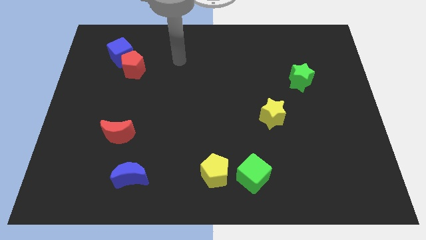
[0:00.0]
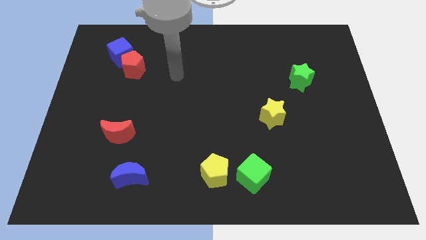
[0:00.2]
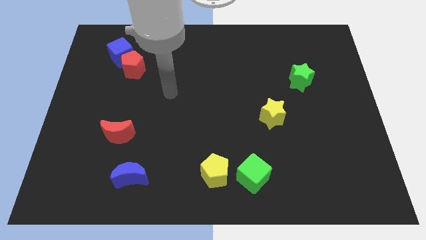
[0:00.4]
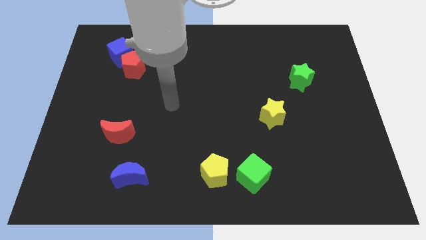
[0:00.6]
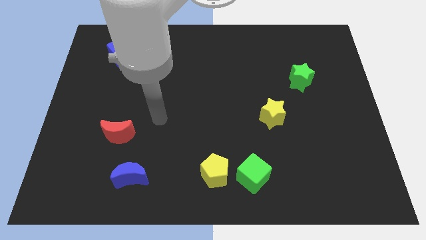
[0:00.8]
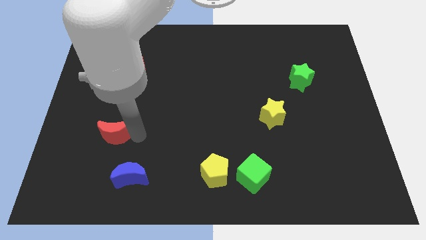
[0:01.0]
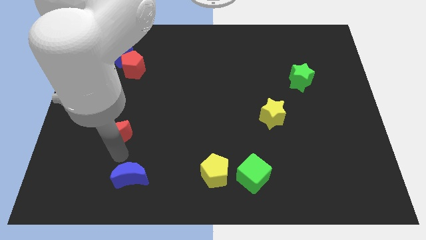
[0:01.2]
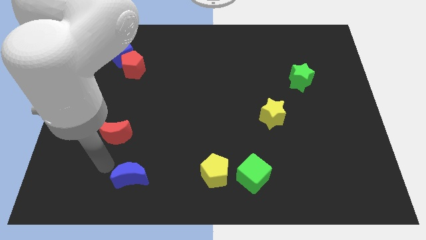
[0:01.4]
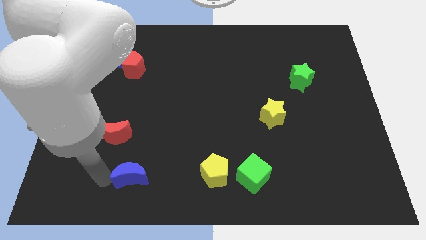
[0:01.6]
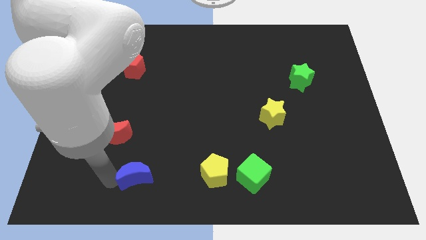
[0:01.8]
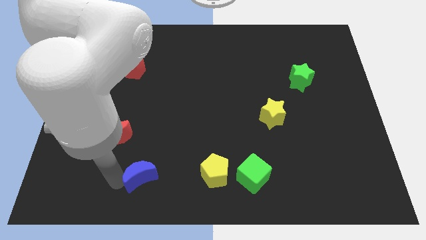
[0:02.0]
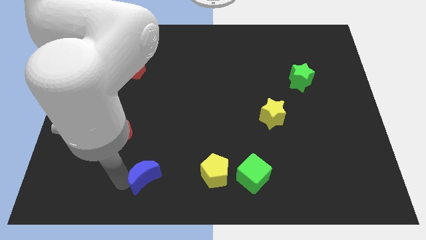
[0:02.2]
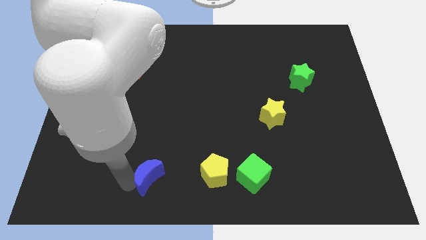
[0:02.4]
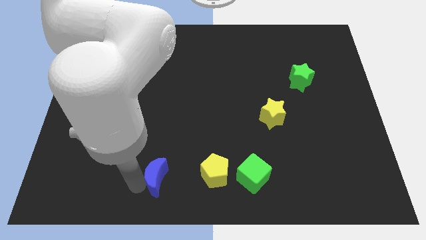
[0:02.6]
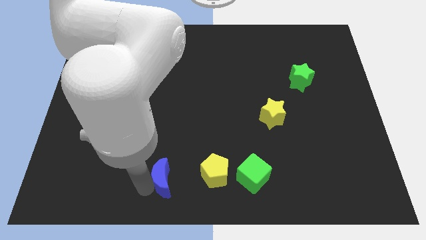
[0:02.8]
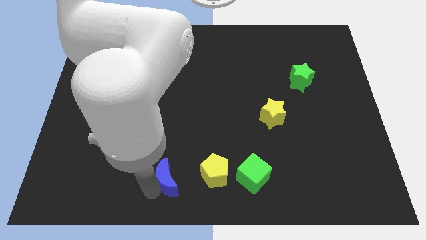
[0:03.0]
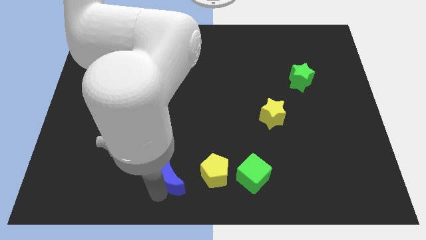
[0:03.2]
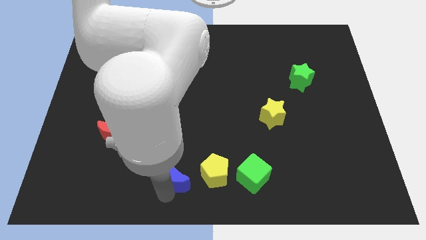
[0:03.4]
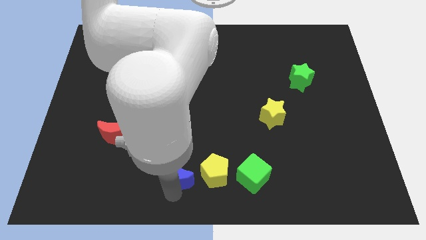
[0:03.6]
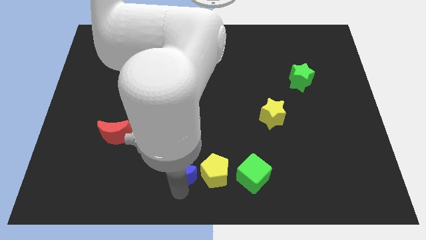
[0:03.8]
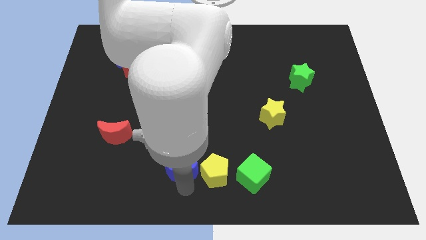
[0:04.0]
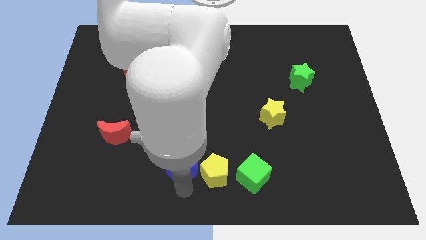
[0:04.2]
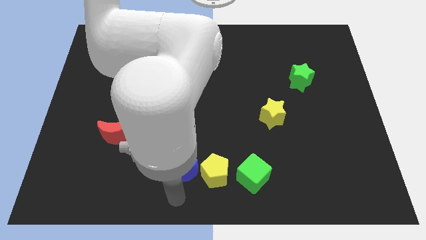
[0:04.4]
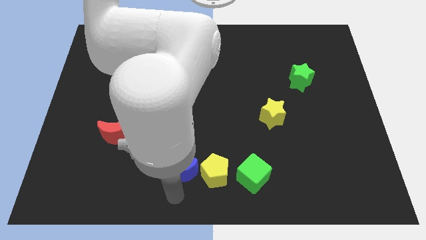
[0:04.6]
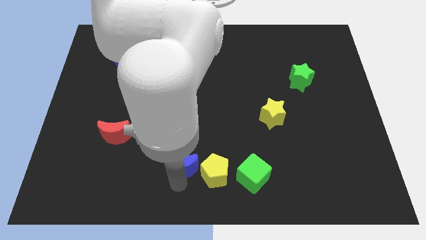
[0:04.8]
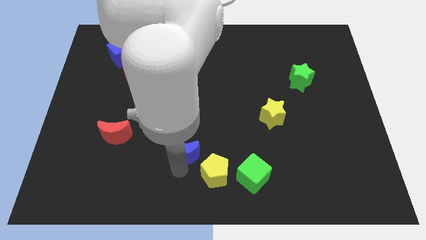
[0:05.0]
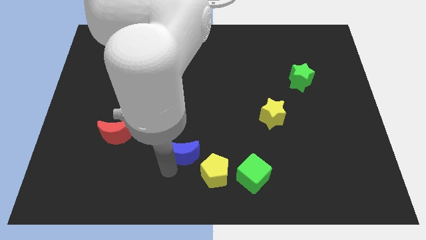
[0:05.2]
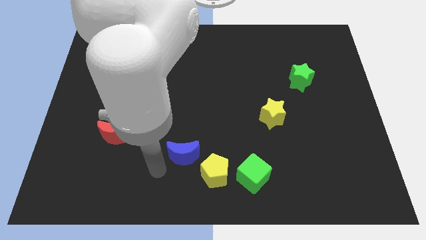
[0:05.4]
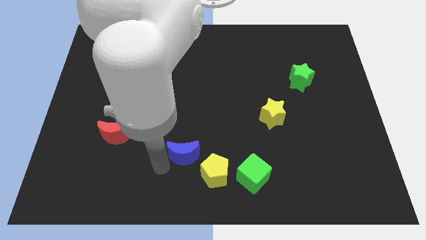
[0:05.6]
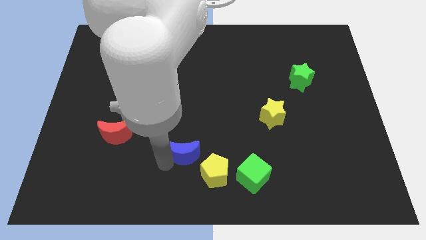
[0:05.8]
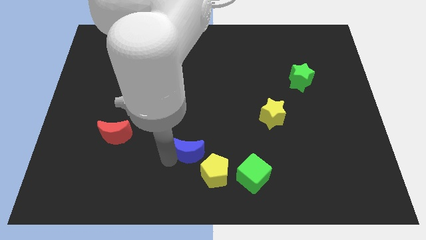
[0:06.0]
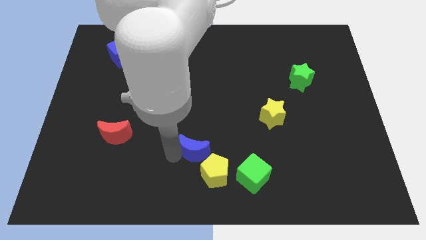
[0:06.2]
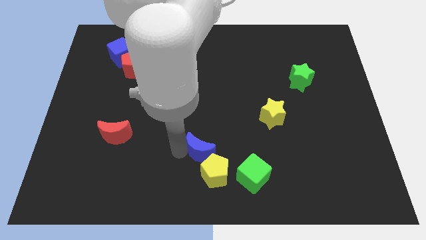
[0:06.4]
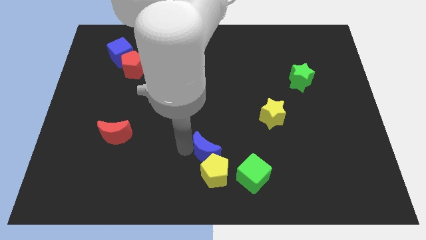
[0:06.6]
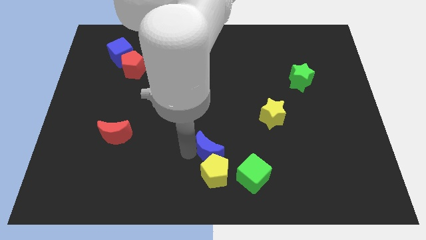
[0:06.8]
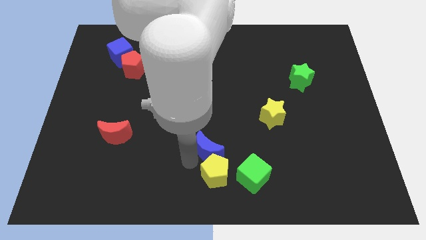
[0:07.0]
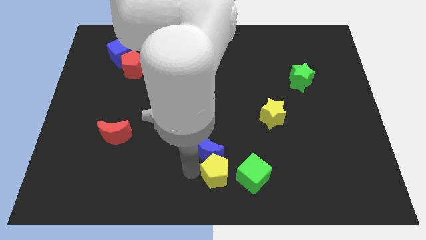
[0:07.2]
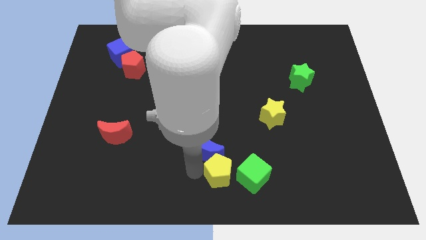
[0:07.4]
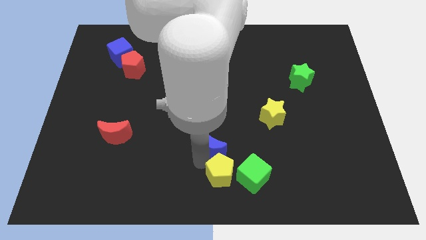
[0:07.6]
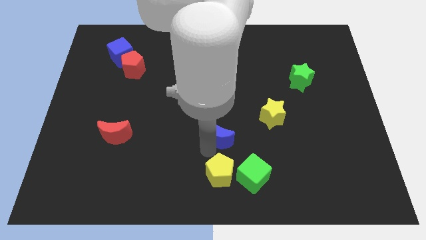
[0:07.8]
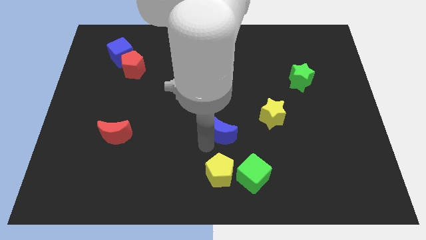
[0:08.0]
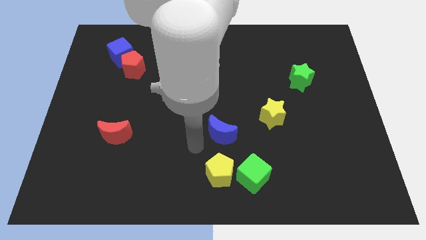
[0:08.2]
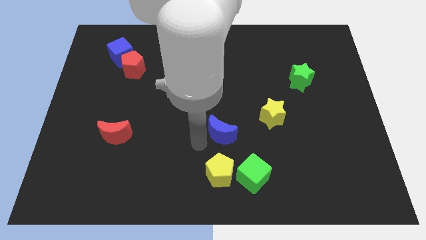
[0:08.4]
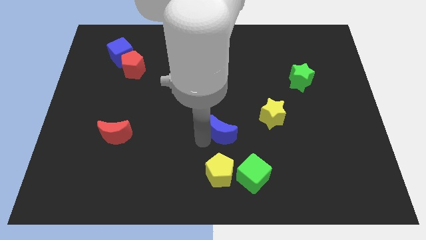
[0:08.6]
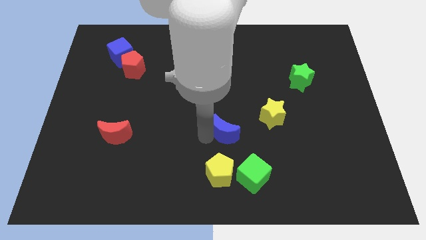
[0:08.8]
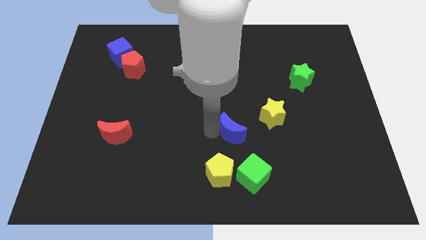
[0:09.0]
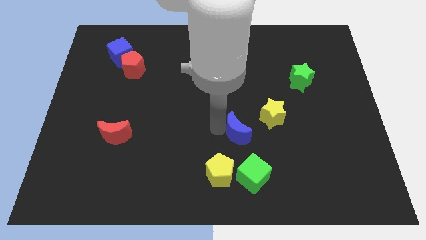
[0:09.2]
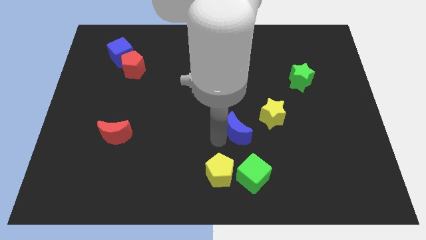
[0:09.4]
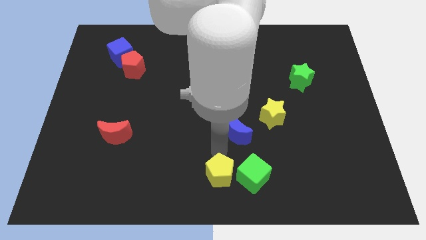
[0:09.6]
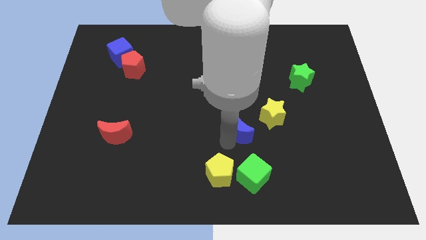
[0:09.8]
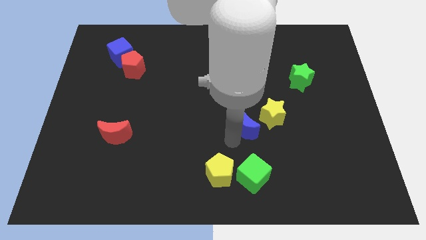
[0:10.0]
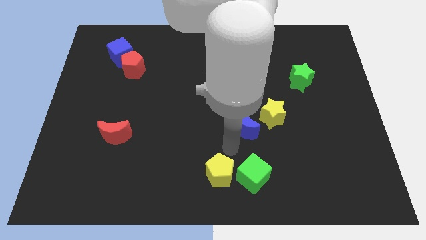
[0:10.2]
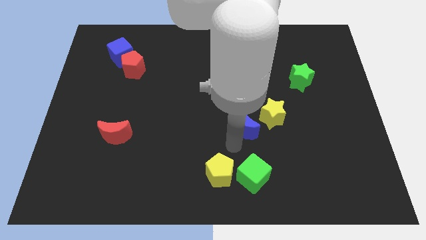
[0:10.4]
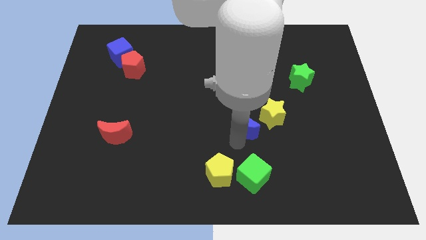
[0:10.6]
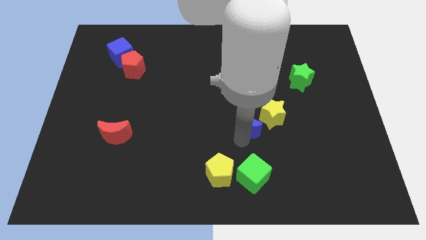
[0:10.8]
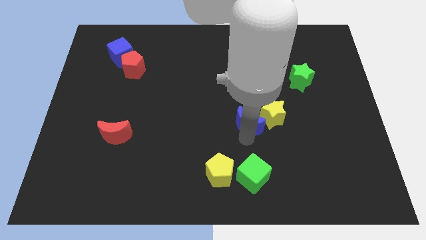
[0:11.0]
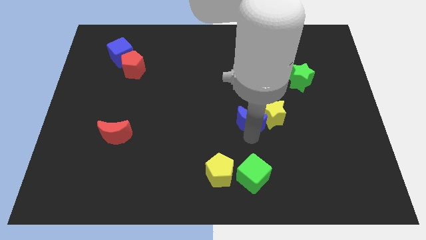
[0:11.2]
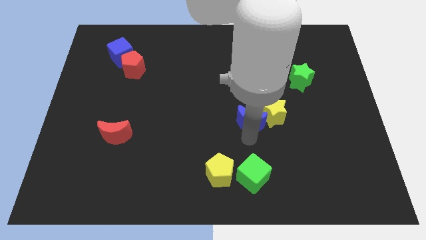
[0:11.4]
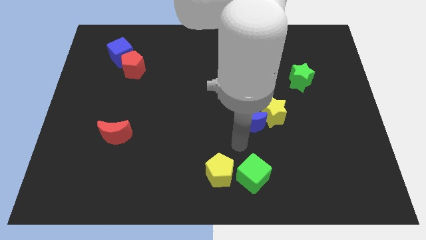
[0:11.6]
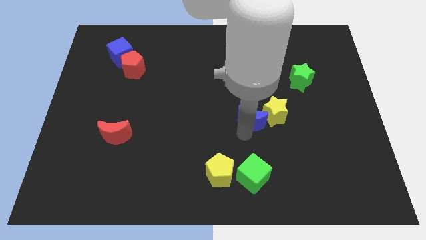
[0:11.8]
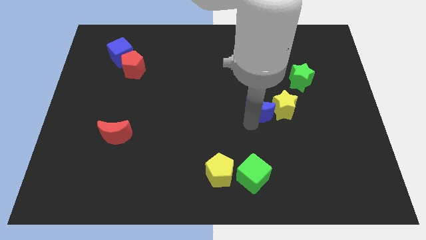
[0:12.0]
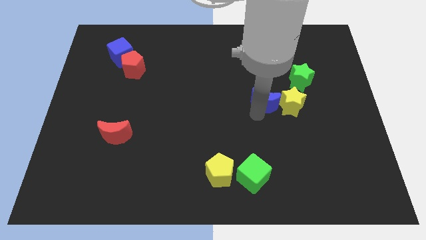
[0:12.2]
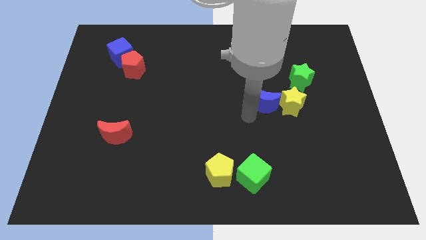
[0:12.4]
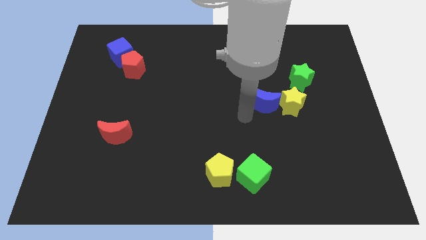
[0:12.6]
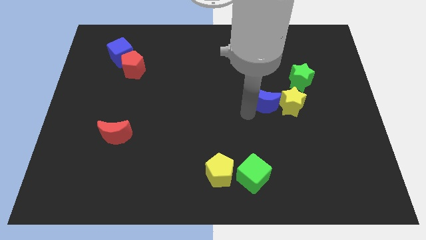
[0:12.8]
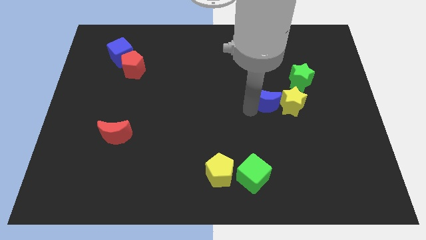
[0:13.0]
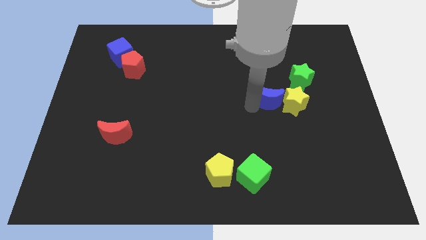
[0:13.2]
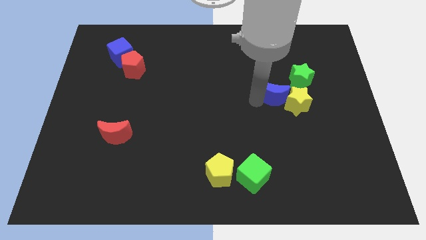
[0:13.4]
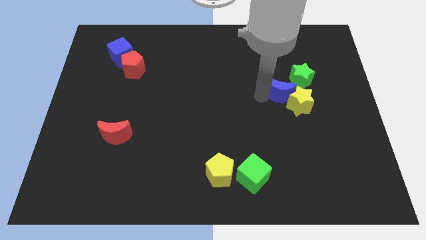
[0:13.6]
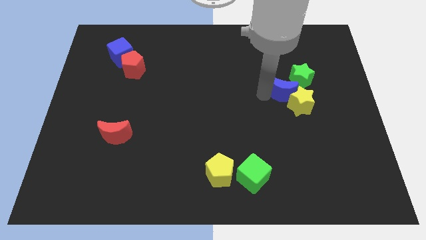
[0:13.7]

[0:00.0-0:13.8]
move the blue moon close to the green star
